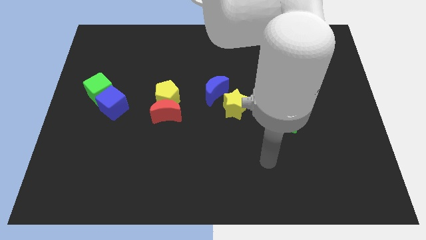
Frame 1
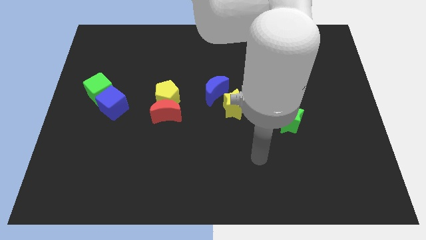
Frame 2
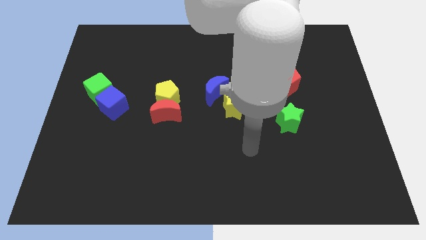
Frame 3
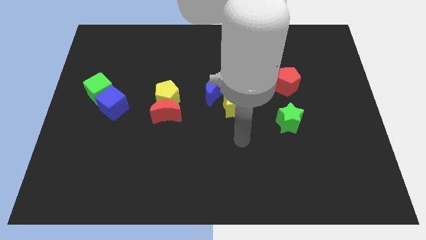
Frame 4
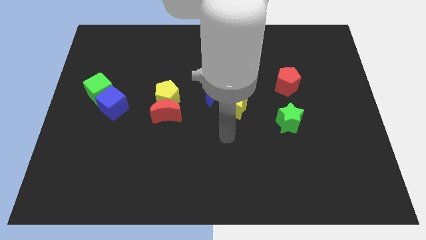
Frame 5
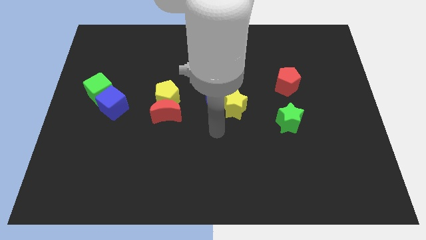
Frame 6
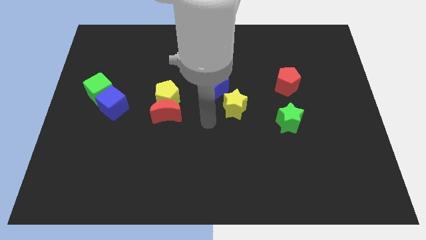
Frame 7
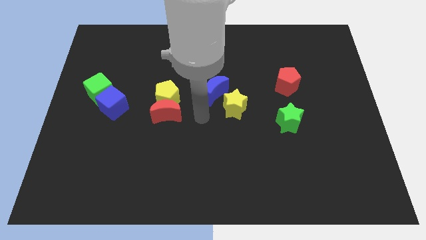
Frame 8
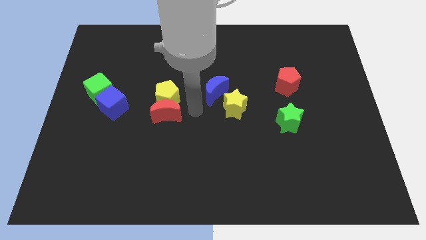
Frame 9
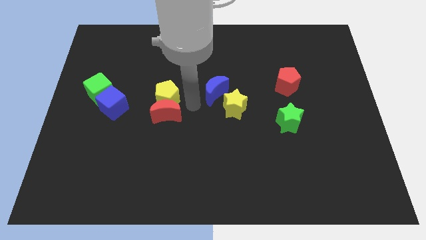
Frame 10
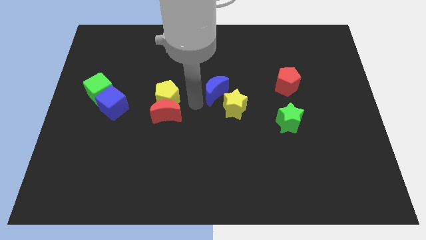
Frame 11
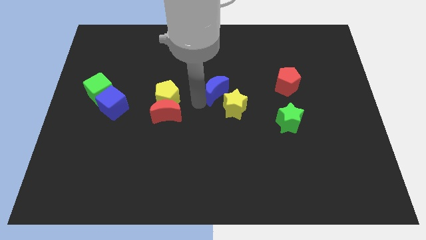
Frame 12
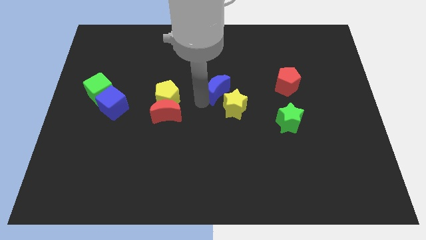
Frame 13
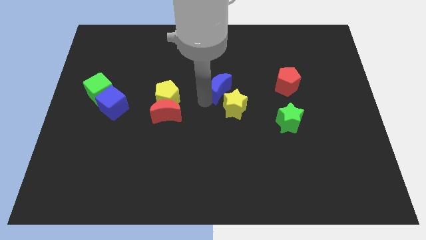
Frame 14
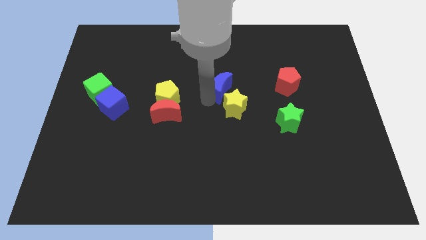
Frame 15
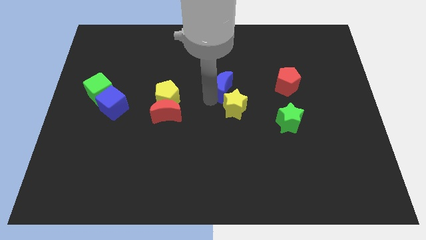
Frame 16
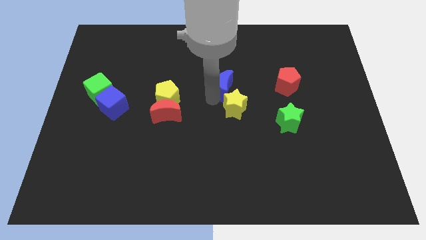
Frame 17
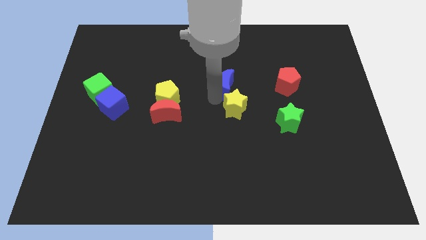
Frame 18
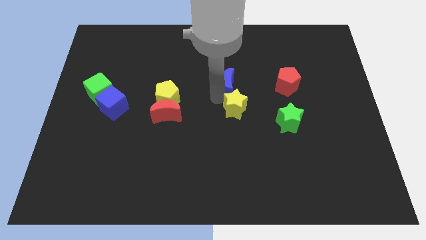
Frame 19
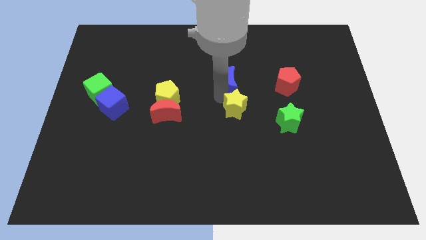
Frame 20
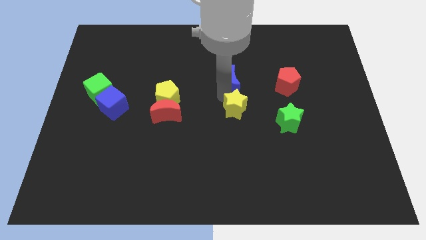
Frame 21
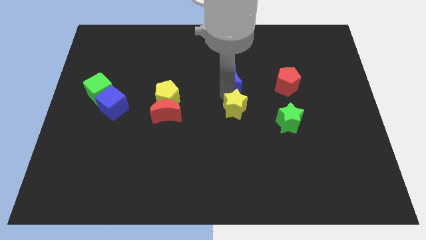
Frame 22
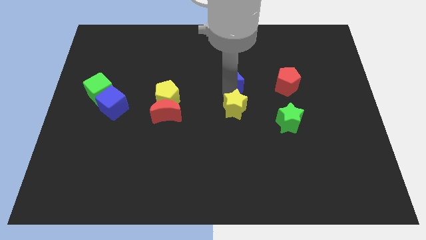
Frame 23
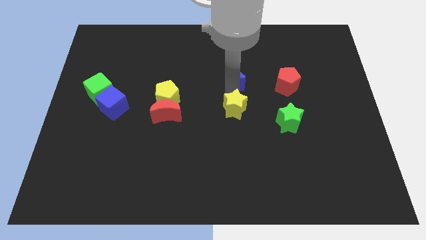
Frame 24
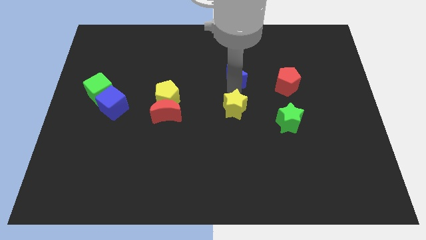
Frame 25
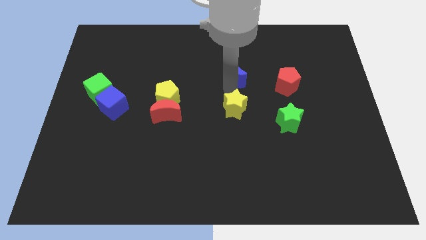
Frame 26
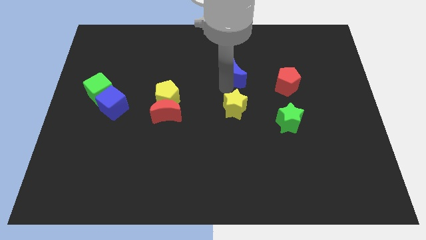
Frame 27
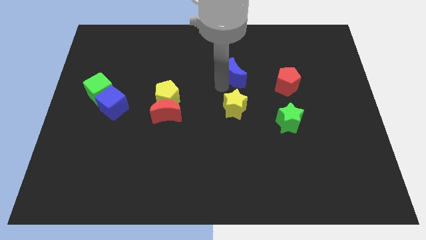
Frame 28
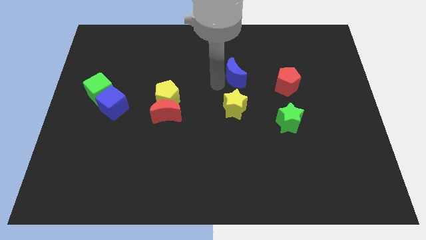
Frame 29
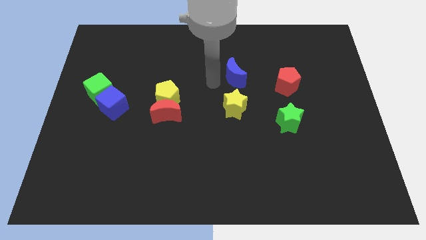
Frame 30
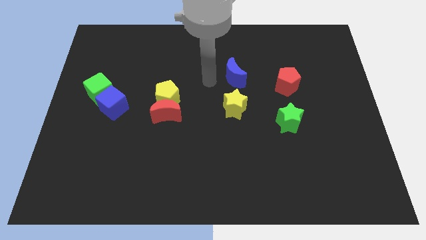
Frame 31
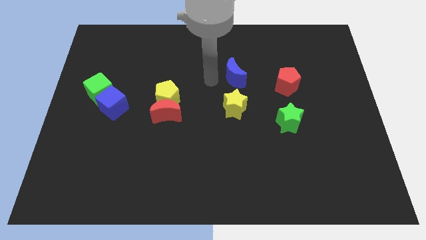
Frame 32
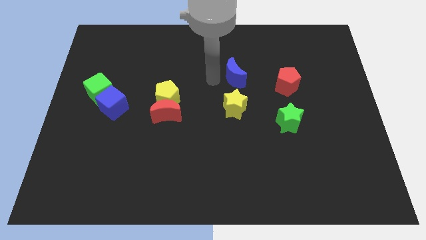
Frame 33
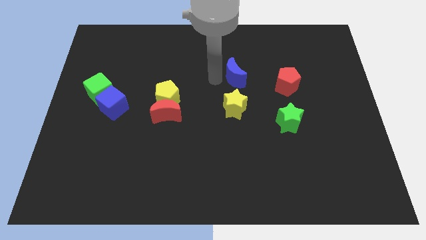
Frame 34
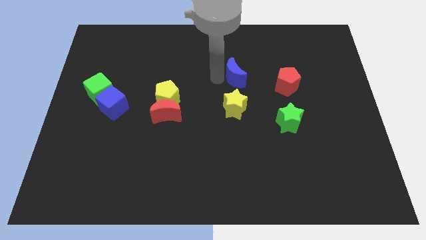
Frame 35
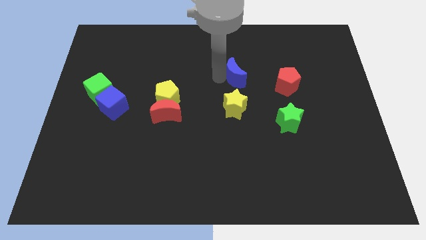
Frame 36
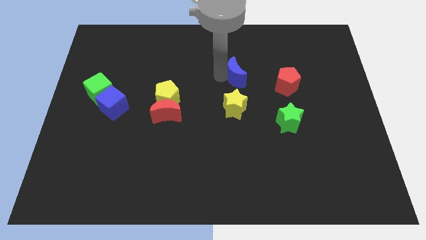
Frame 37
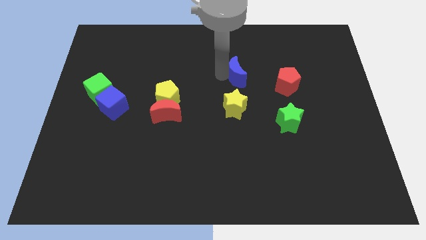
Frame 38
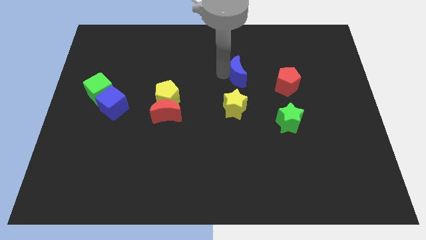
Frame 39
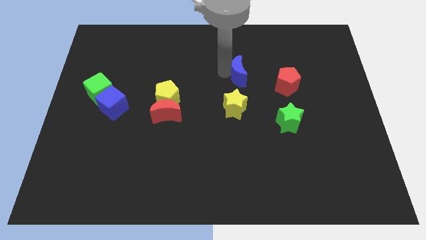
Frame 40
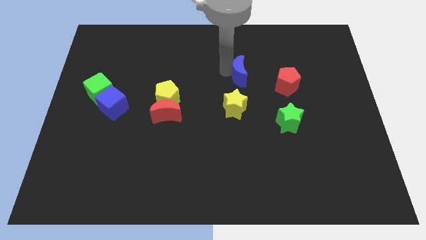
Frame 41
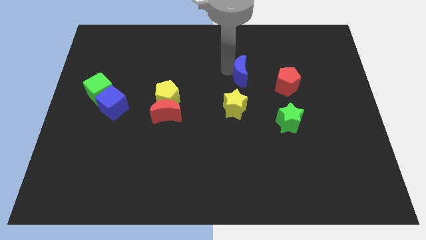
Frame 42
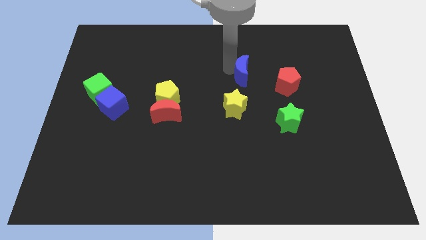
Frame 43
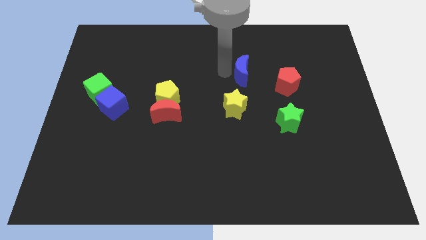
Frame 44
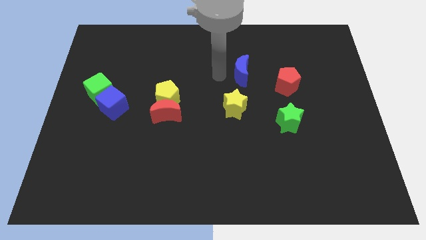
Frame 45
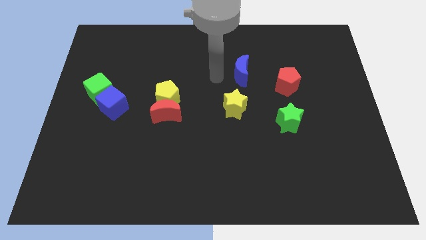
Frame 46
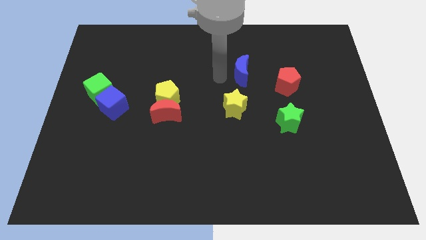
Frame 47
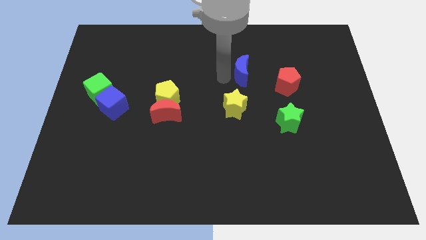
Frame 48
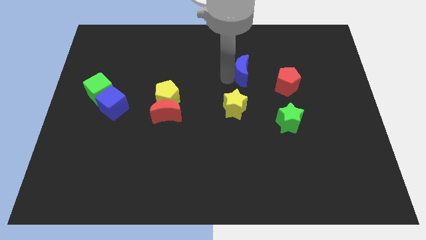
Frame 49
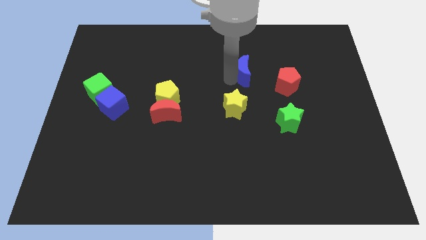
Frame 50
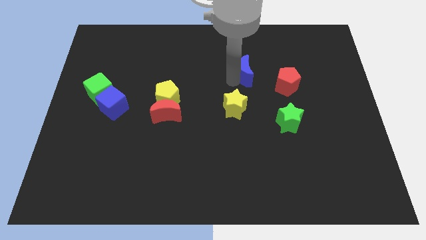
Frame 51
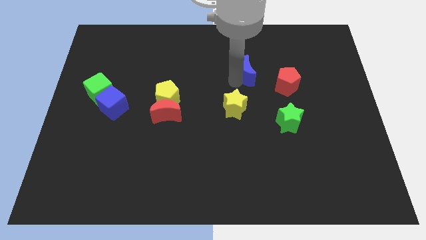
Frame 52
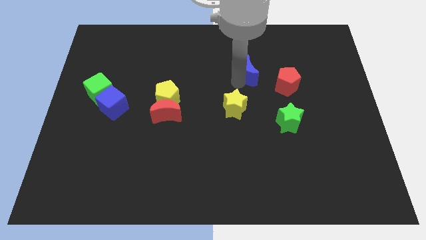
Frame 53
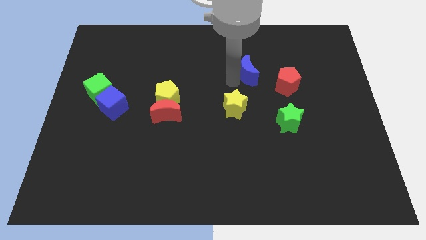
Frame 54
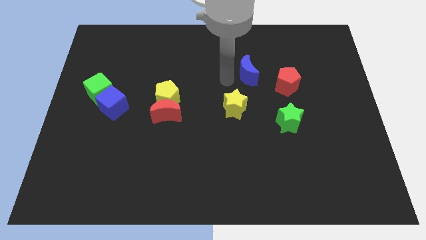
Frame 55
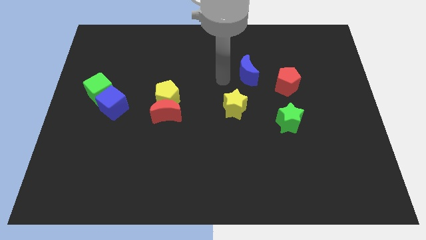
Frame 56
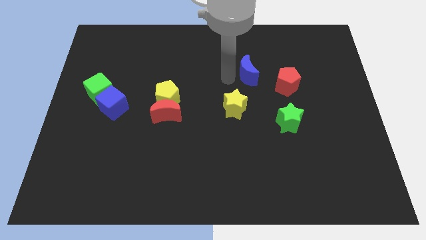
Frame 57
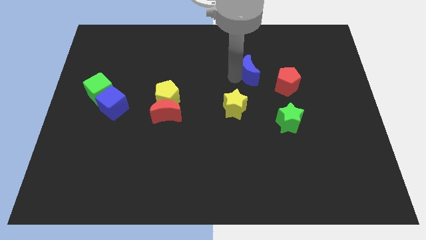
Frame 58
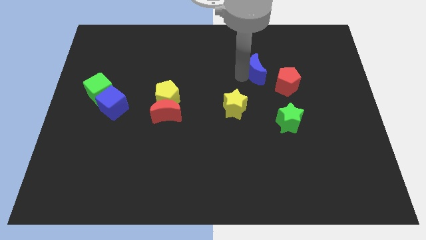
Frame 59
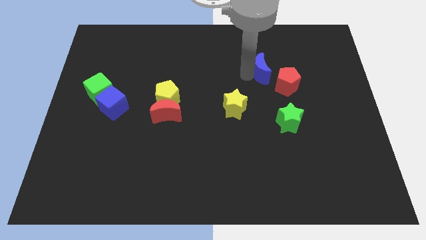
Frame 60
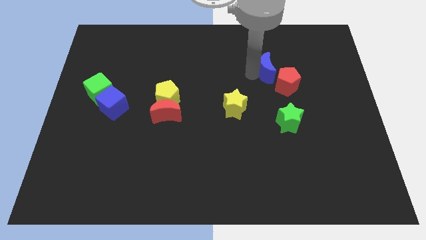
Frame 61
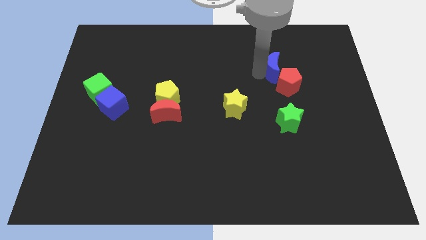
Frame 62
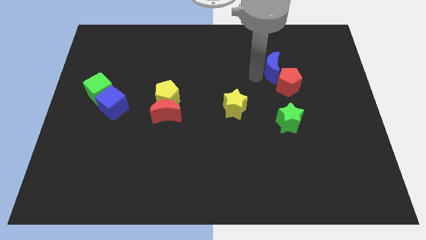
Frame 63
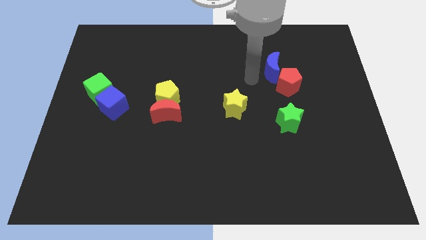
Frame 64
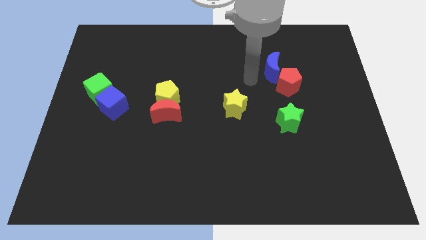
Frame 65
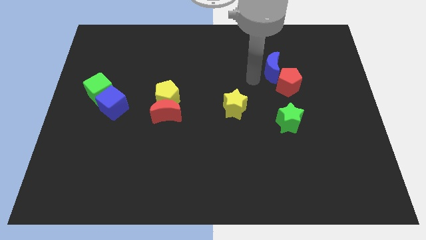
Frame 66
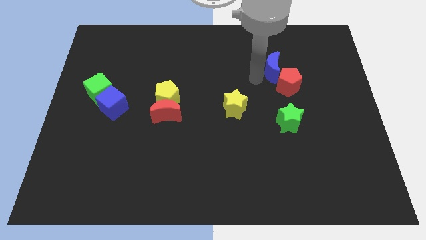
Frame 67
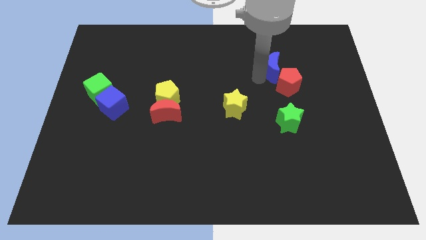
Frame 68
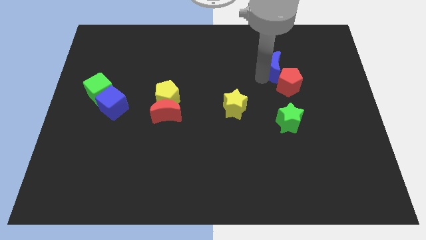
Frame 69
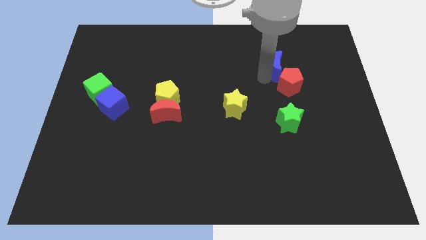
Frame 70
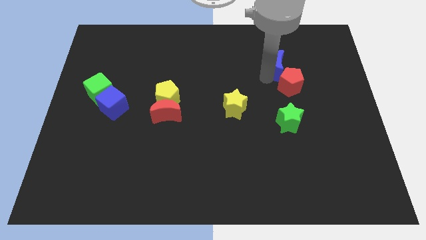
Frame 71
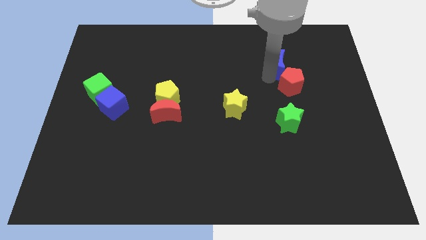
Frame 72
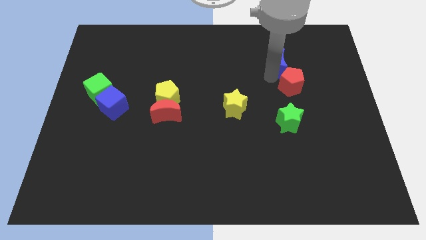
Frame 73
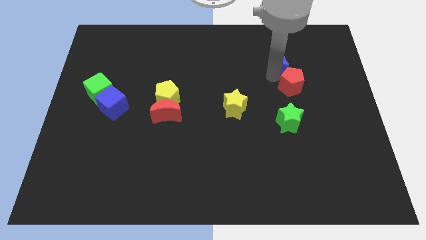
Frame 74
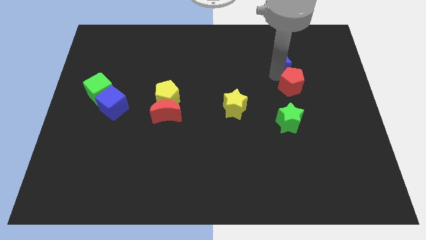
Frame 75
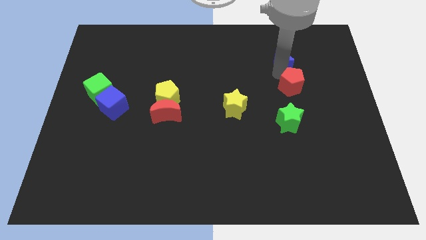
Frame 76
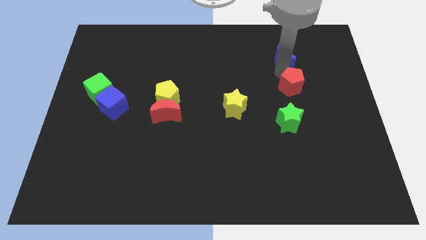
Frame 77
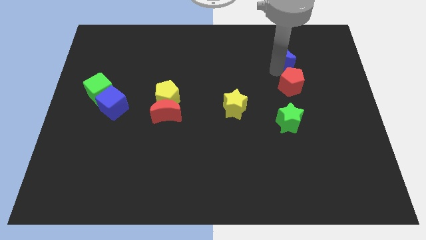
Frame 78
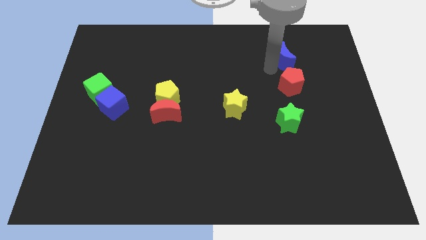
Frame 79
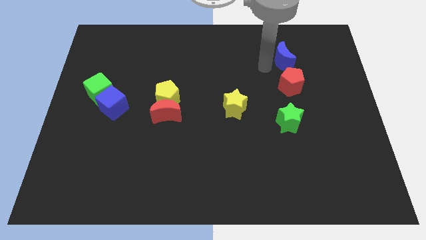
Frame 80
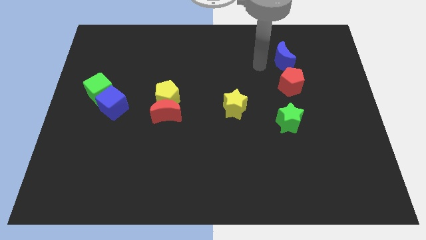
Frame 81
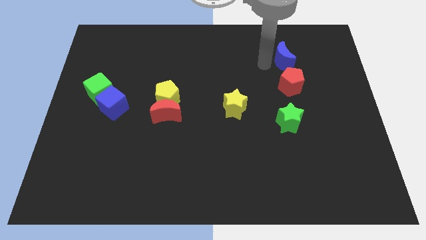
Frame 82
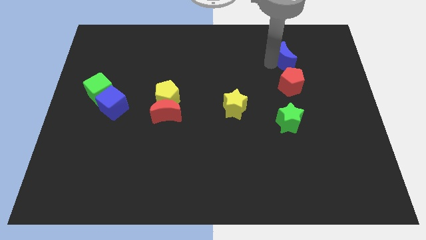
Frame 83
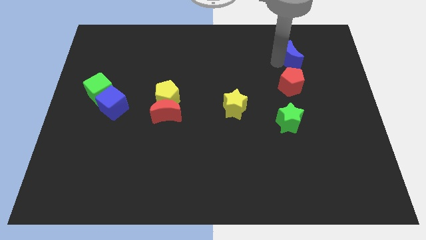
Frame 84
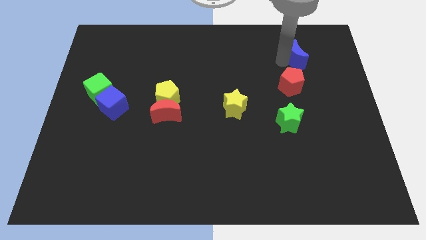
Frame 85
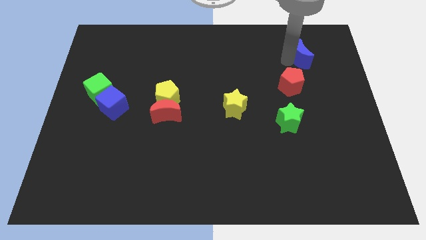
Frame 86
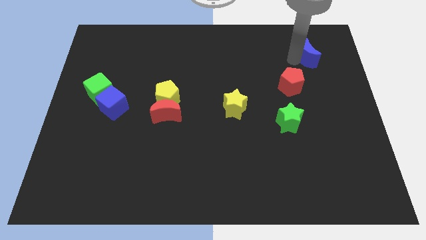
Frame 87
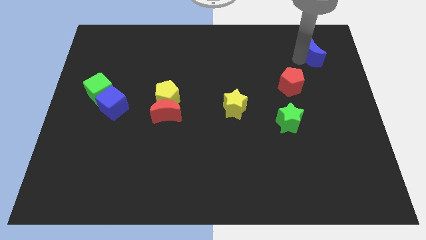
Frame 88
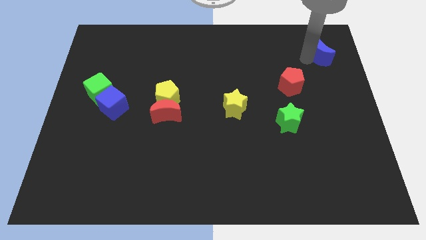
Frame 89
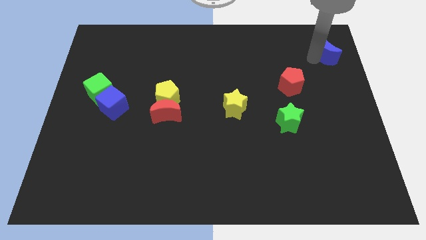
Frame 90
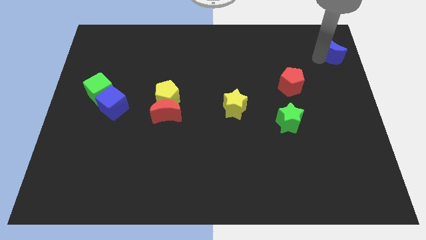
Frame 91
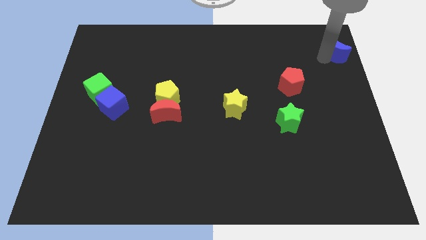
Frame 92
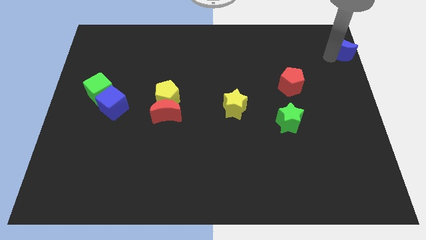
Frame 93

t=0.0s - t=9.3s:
push the blue moon to the top right corner
